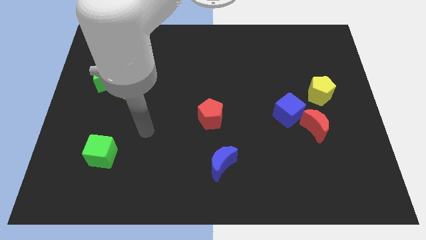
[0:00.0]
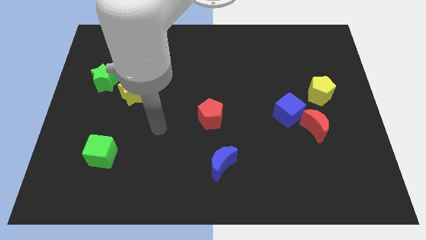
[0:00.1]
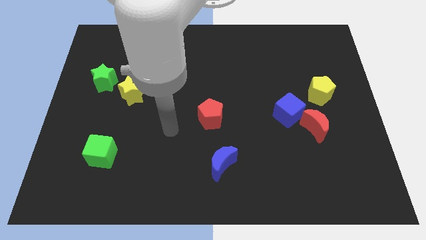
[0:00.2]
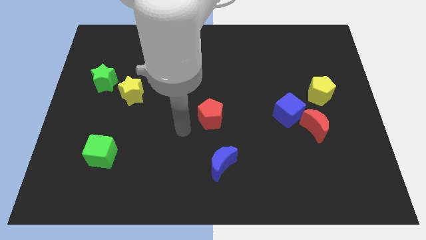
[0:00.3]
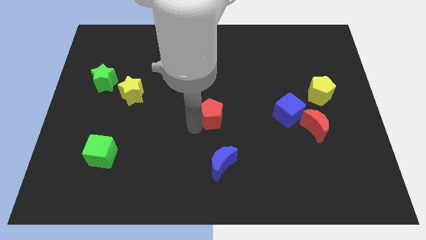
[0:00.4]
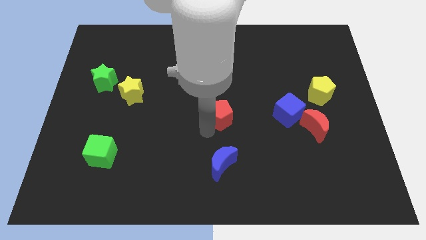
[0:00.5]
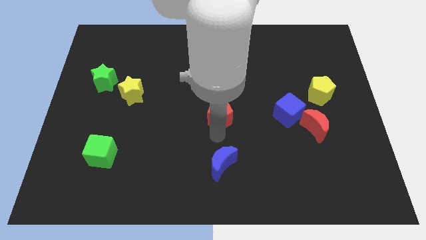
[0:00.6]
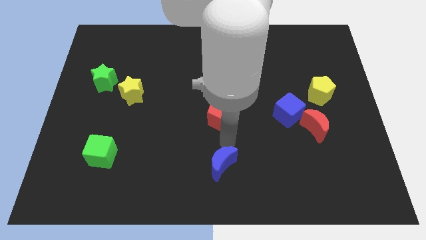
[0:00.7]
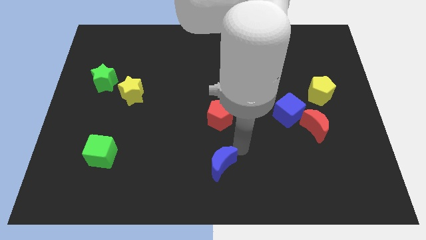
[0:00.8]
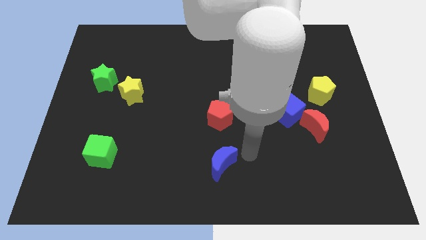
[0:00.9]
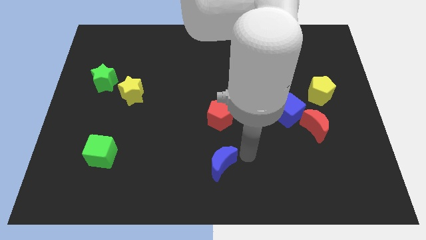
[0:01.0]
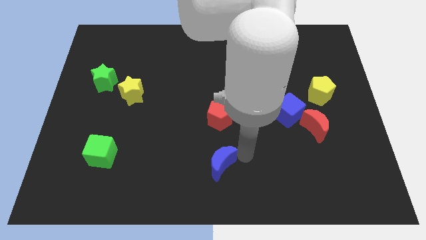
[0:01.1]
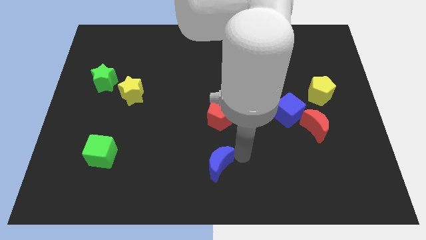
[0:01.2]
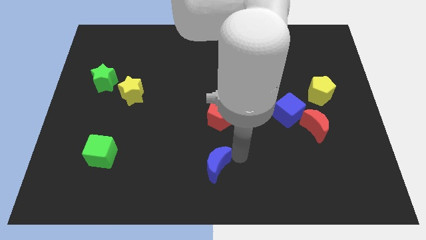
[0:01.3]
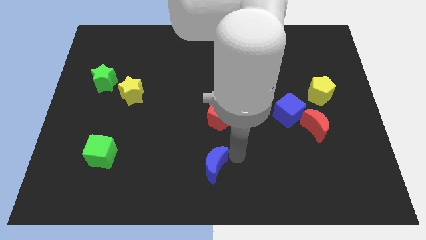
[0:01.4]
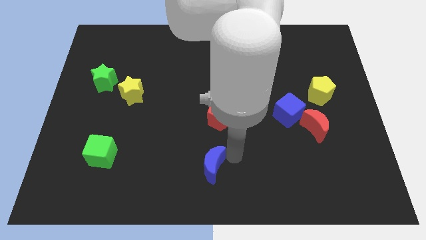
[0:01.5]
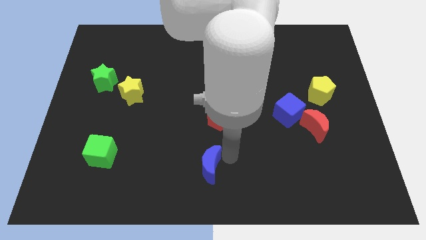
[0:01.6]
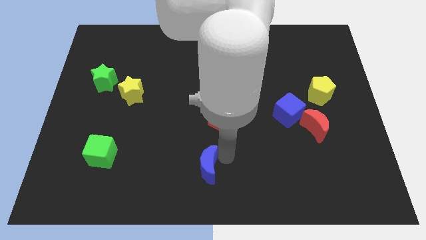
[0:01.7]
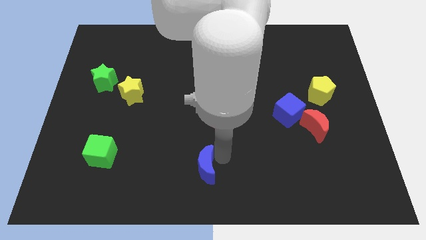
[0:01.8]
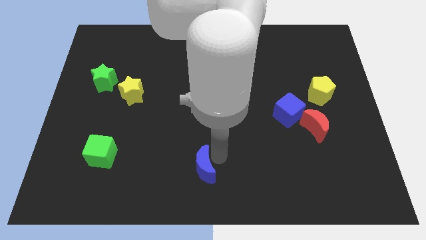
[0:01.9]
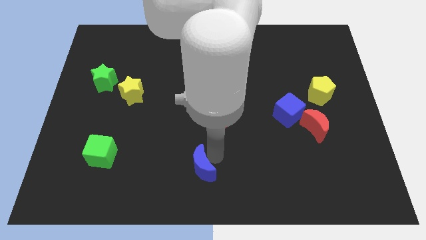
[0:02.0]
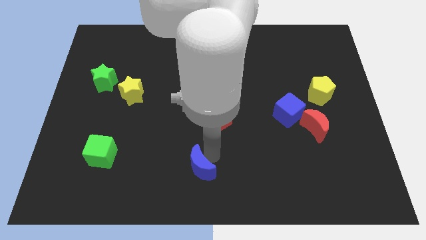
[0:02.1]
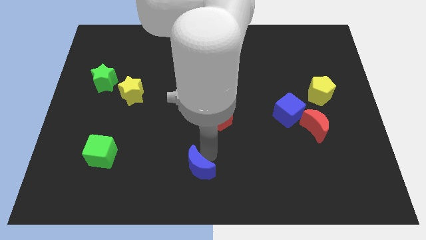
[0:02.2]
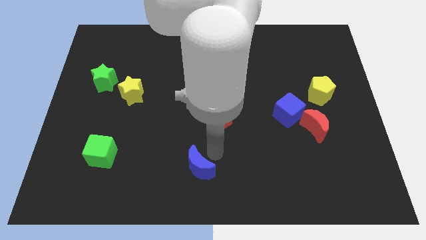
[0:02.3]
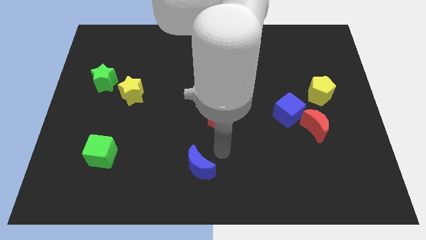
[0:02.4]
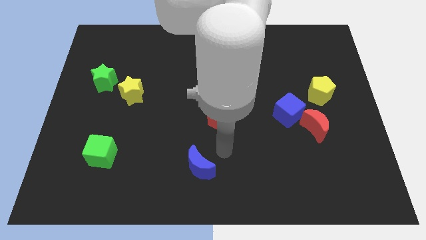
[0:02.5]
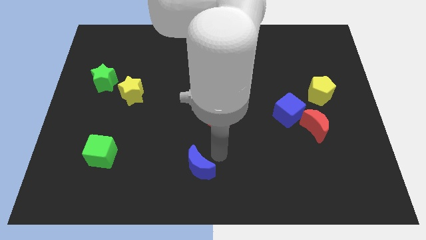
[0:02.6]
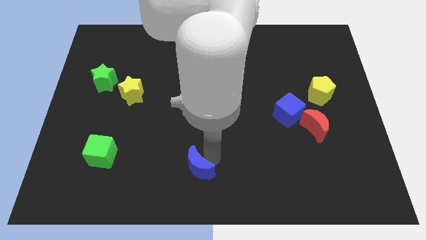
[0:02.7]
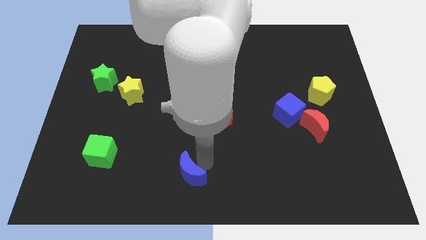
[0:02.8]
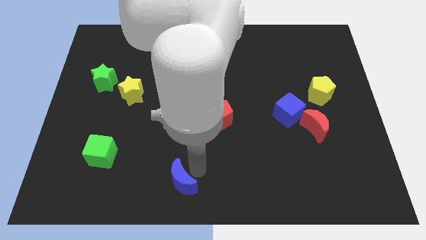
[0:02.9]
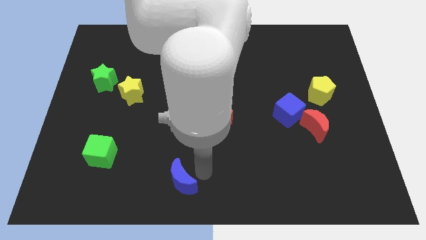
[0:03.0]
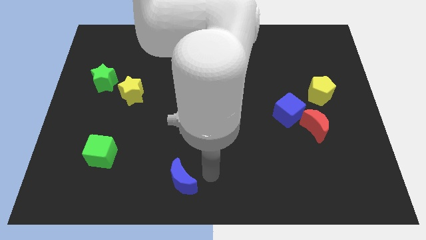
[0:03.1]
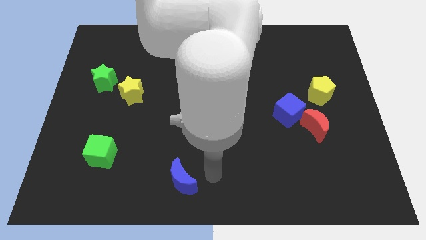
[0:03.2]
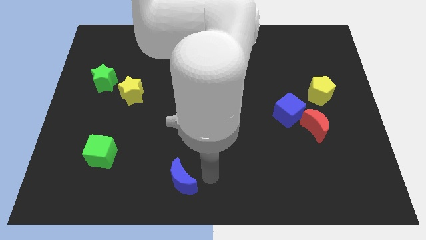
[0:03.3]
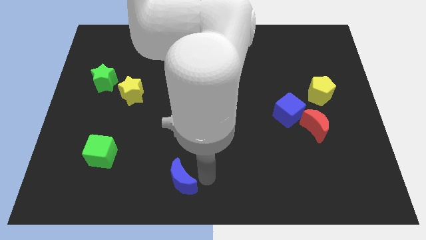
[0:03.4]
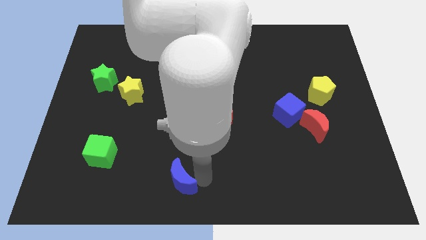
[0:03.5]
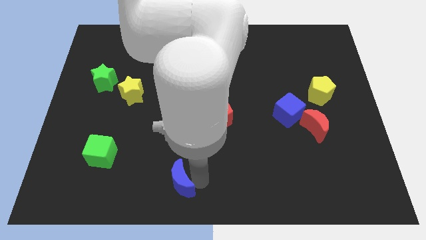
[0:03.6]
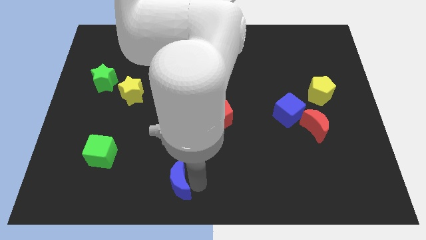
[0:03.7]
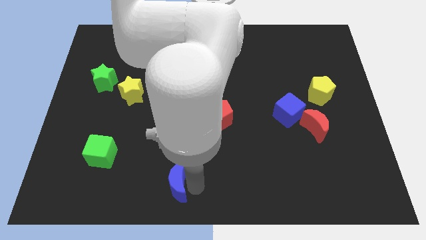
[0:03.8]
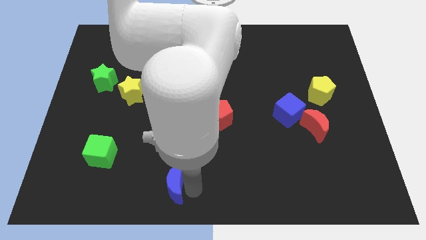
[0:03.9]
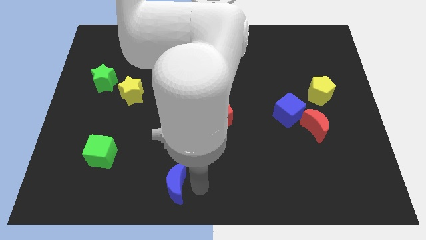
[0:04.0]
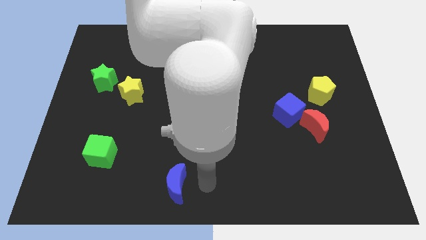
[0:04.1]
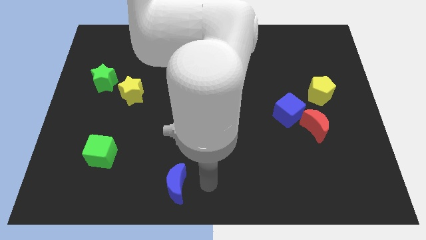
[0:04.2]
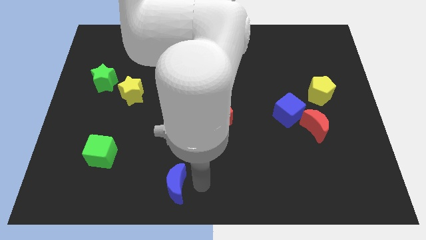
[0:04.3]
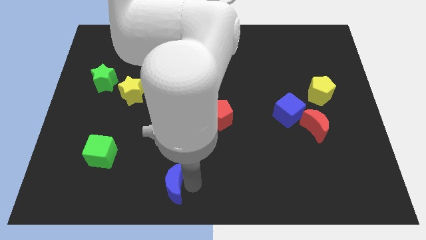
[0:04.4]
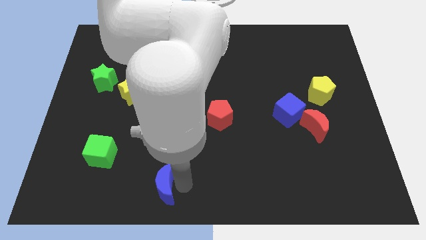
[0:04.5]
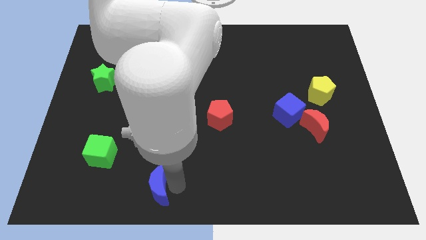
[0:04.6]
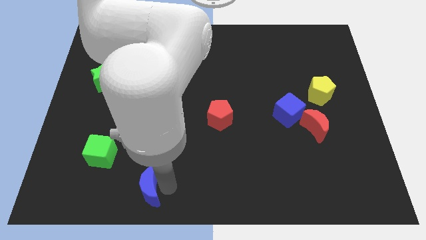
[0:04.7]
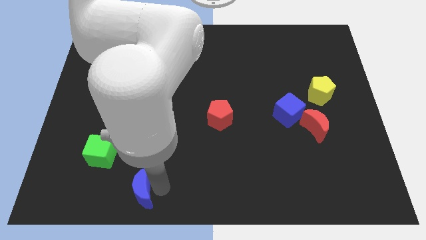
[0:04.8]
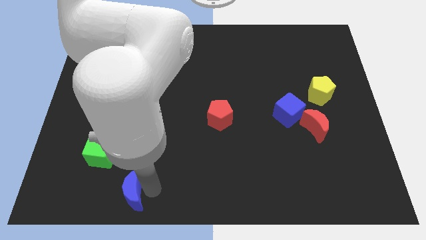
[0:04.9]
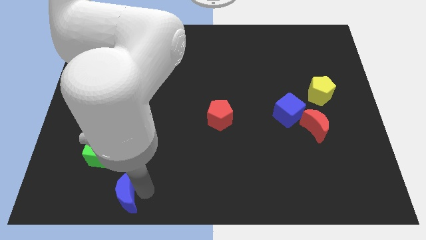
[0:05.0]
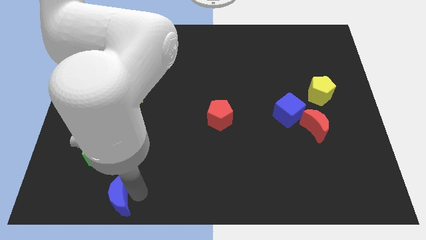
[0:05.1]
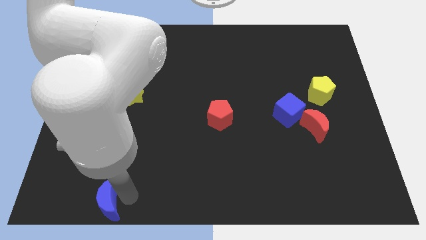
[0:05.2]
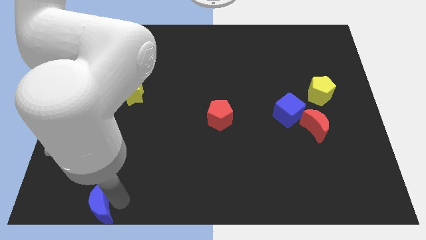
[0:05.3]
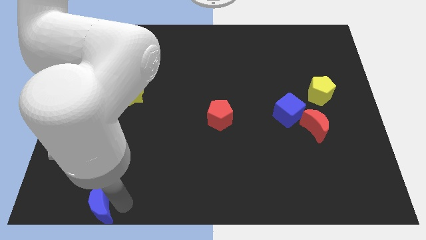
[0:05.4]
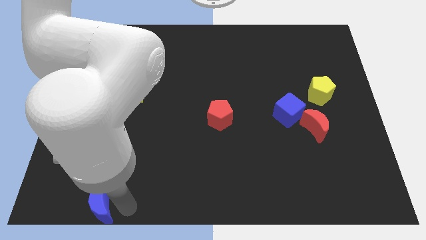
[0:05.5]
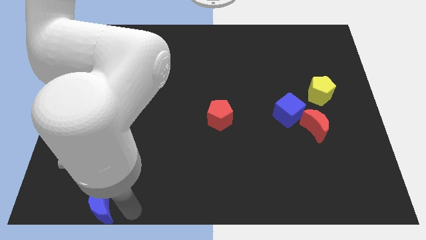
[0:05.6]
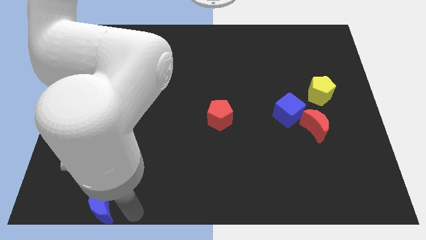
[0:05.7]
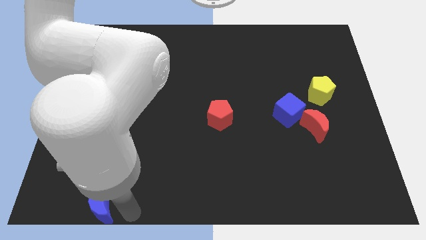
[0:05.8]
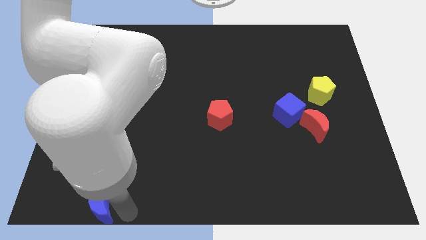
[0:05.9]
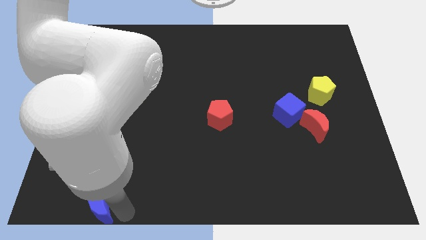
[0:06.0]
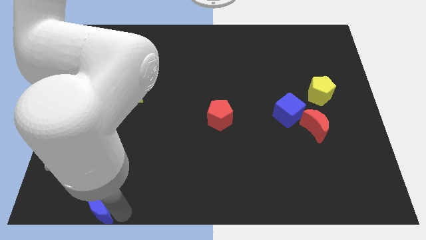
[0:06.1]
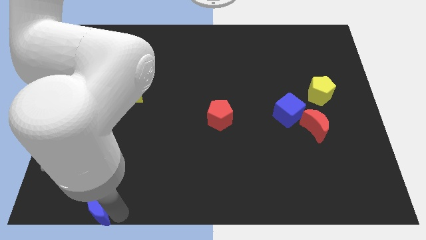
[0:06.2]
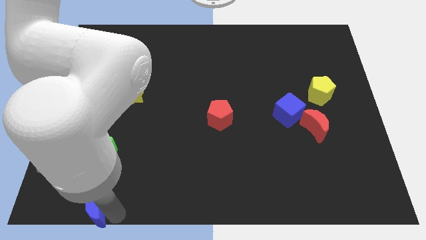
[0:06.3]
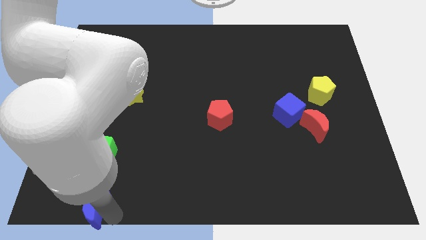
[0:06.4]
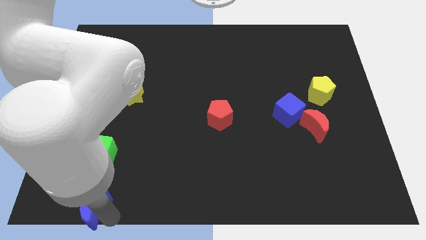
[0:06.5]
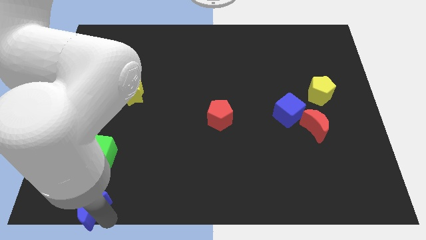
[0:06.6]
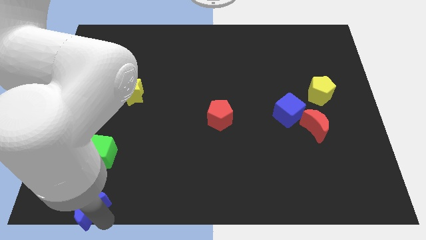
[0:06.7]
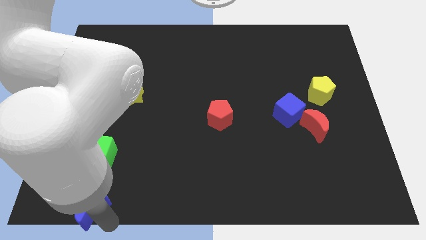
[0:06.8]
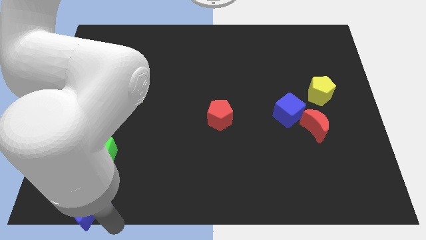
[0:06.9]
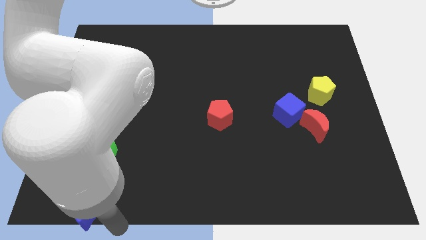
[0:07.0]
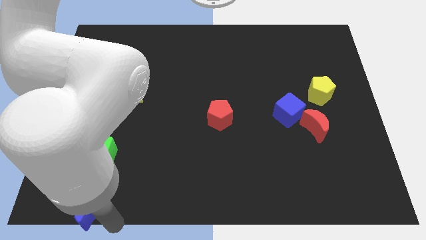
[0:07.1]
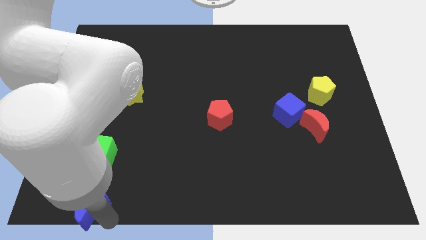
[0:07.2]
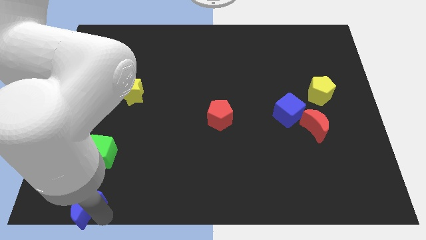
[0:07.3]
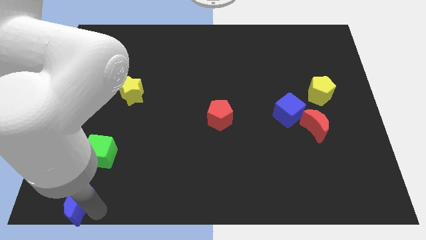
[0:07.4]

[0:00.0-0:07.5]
slide the blue moon to the bottom left

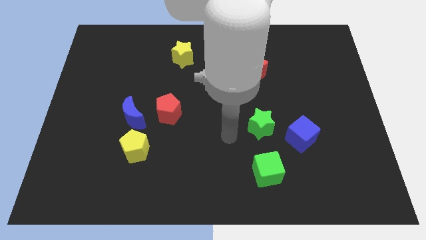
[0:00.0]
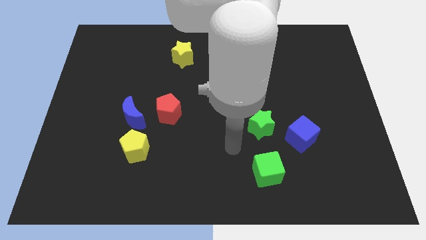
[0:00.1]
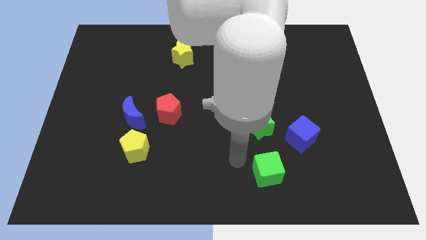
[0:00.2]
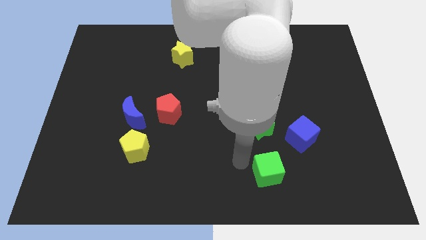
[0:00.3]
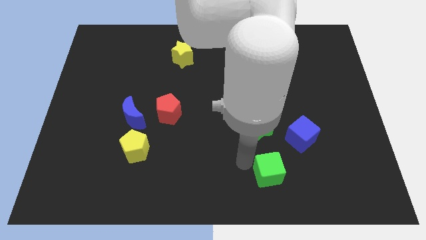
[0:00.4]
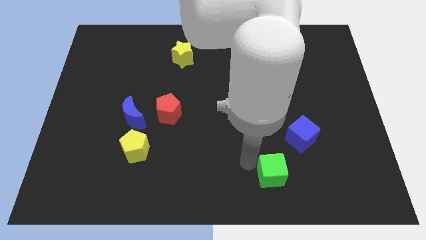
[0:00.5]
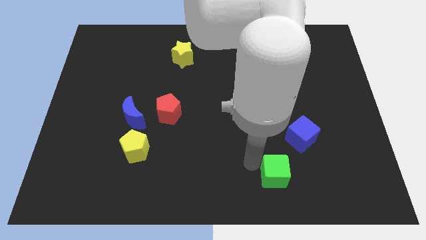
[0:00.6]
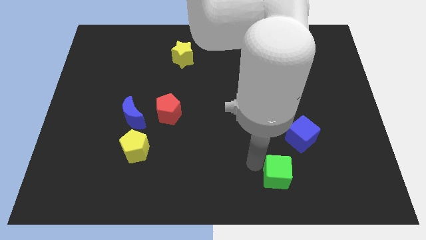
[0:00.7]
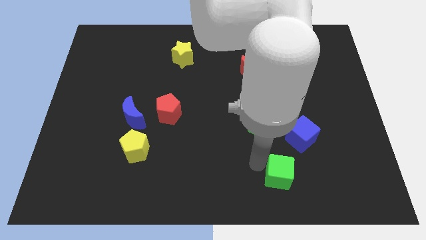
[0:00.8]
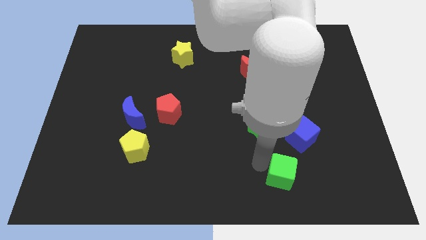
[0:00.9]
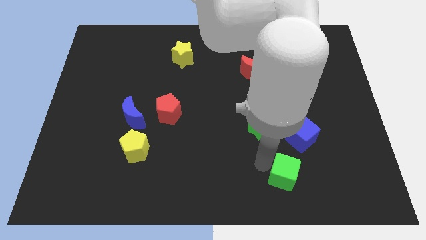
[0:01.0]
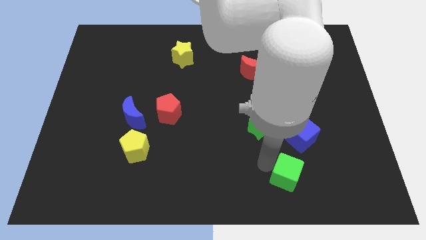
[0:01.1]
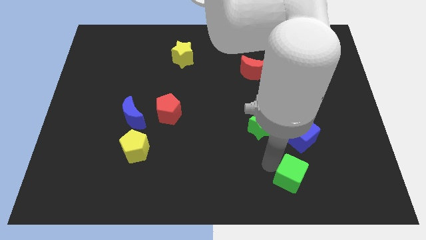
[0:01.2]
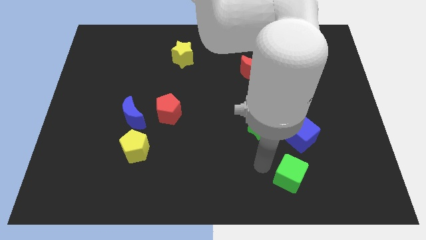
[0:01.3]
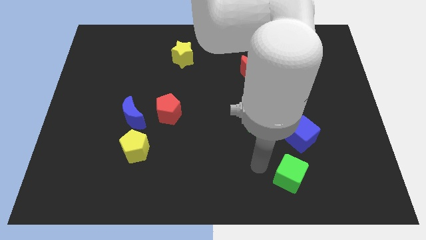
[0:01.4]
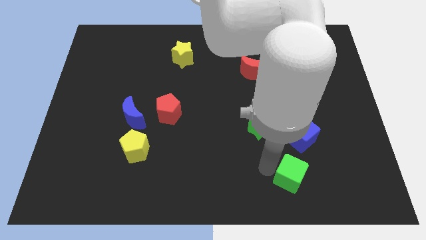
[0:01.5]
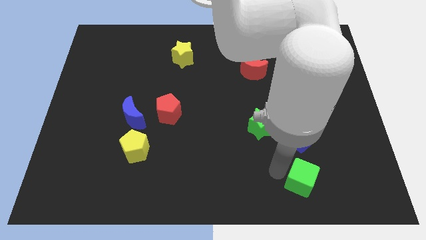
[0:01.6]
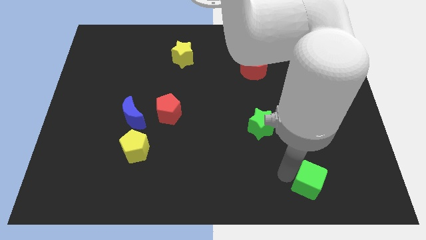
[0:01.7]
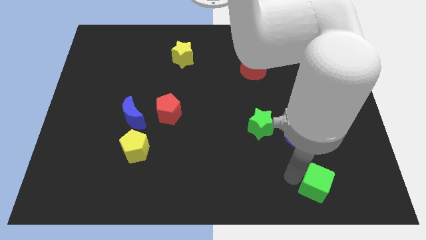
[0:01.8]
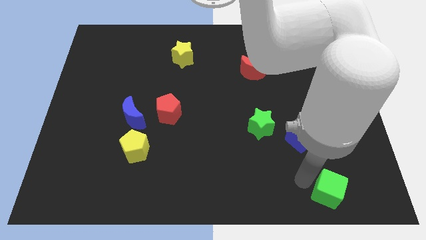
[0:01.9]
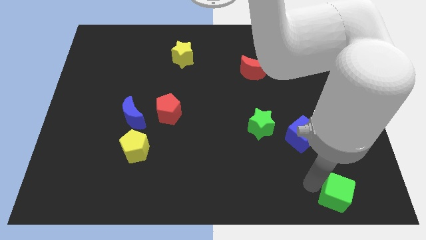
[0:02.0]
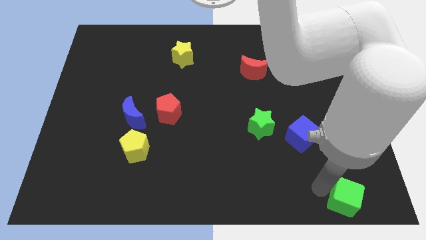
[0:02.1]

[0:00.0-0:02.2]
put the green cube to the bottom right of the board
